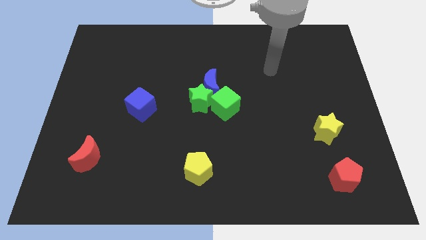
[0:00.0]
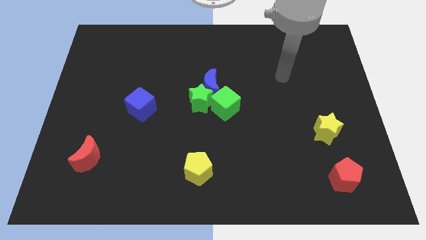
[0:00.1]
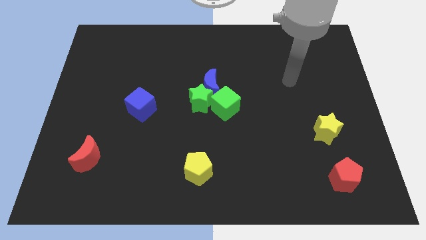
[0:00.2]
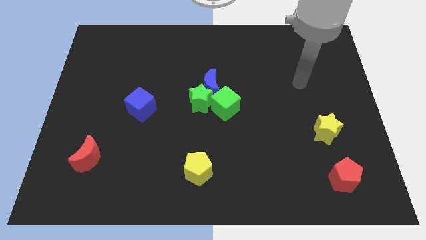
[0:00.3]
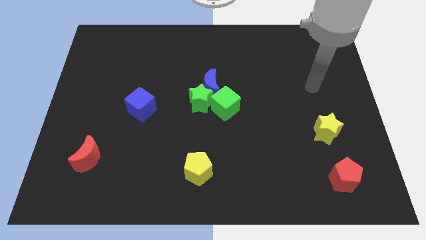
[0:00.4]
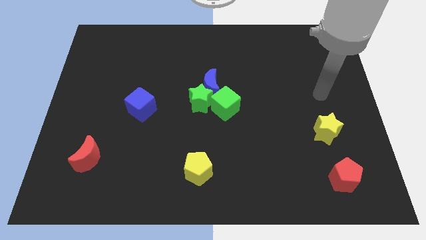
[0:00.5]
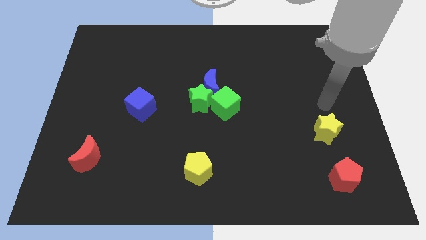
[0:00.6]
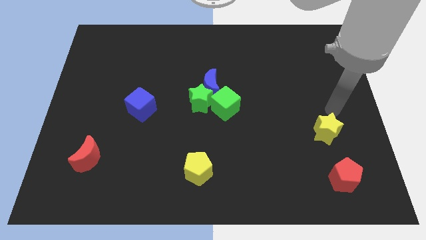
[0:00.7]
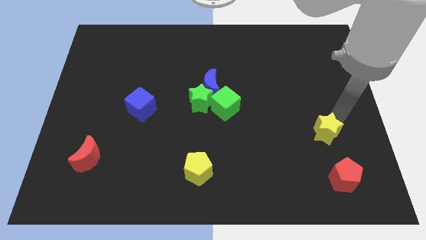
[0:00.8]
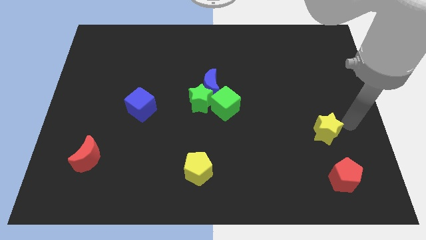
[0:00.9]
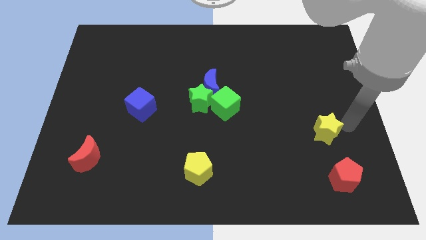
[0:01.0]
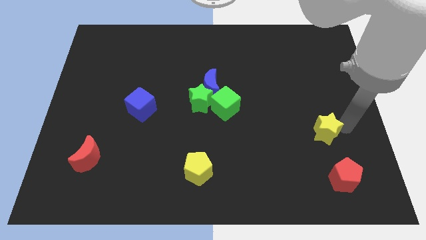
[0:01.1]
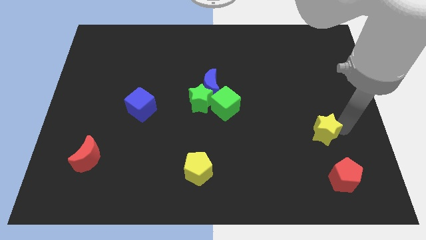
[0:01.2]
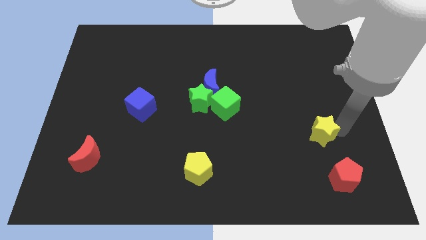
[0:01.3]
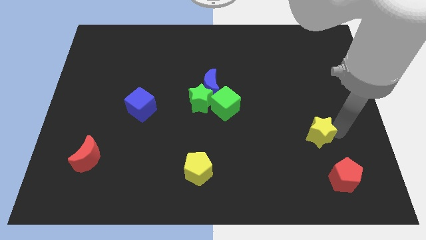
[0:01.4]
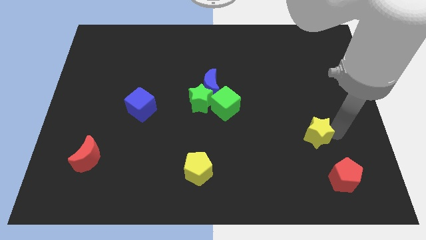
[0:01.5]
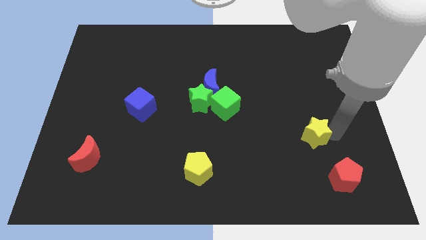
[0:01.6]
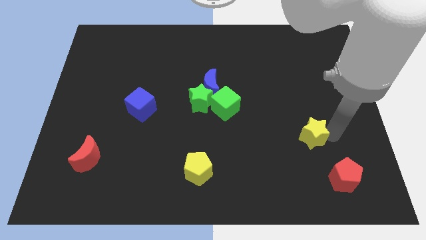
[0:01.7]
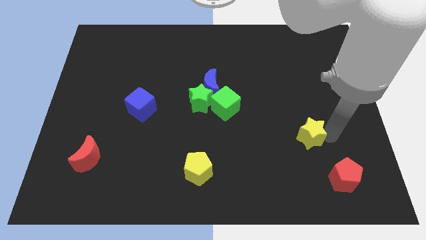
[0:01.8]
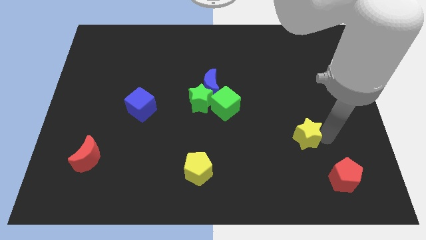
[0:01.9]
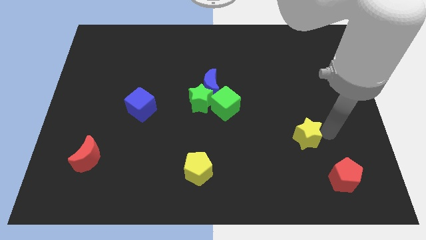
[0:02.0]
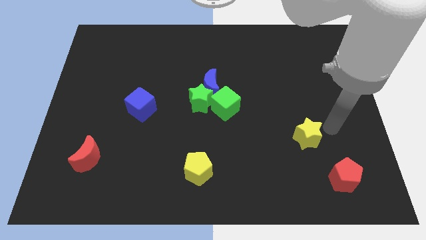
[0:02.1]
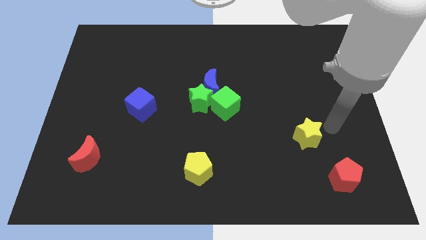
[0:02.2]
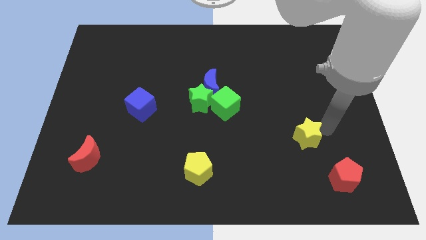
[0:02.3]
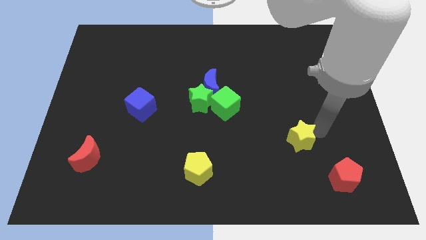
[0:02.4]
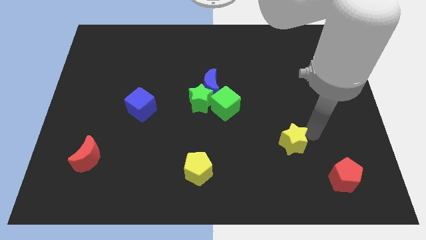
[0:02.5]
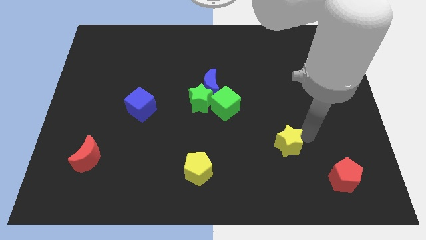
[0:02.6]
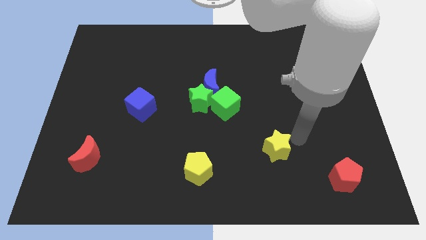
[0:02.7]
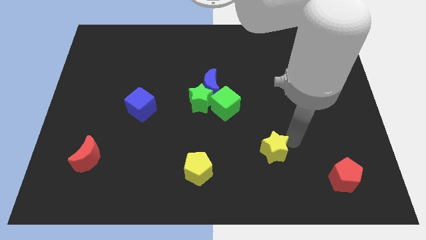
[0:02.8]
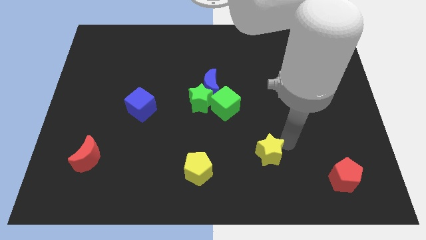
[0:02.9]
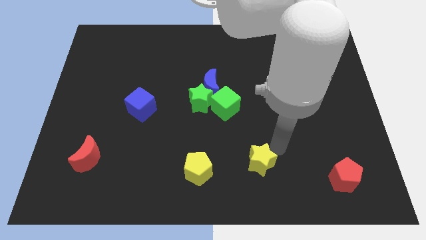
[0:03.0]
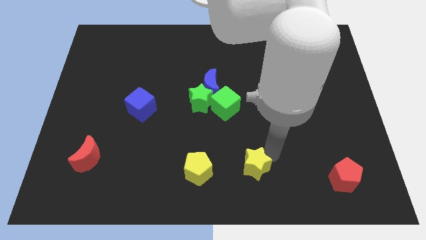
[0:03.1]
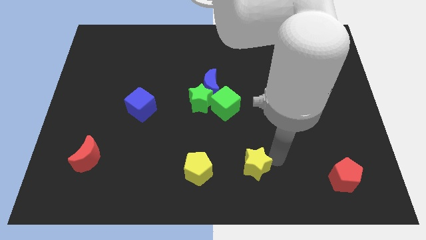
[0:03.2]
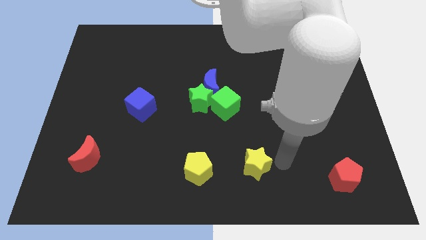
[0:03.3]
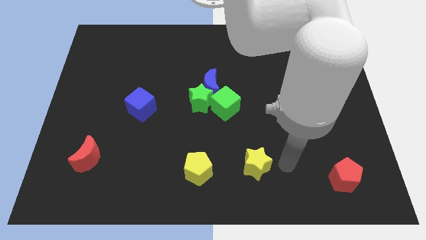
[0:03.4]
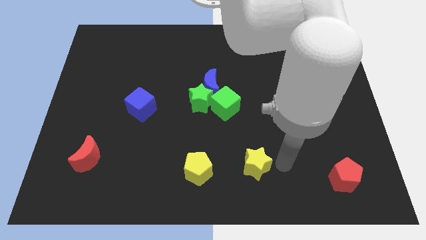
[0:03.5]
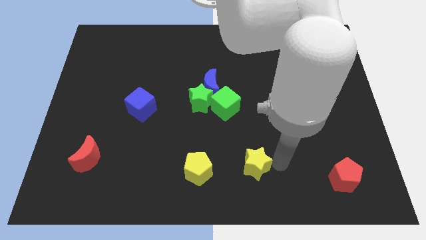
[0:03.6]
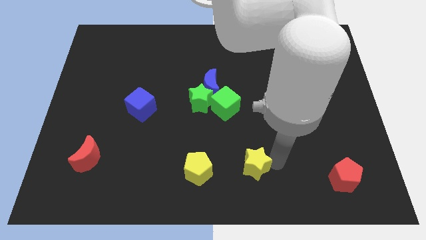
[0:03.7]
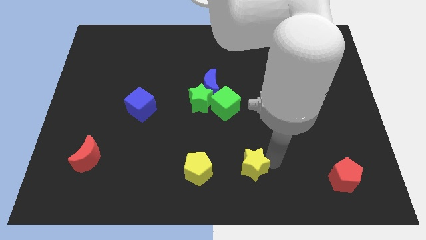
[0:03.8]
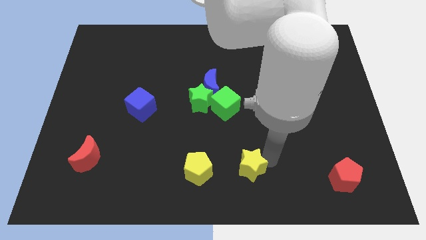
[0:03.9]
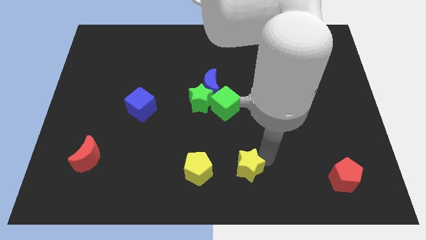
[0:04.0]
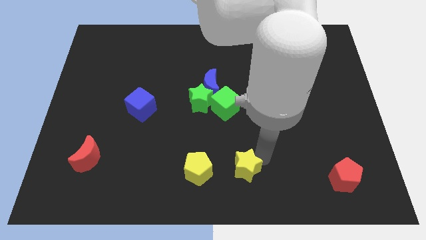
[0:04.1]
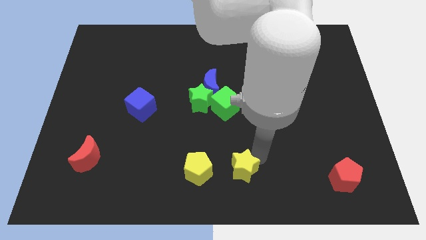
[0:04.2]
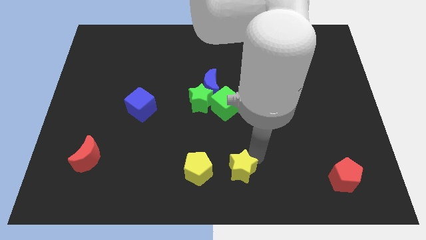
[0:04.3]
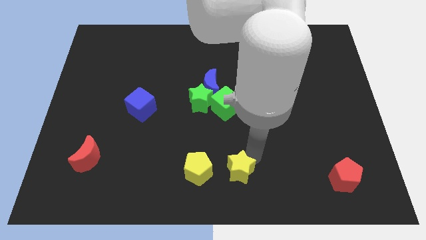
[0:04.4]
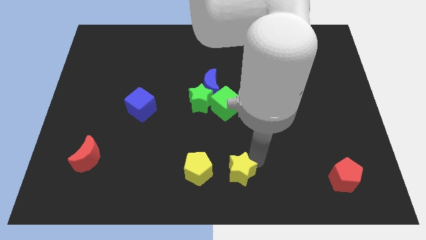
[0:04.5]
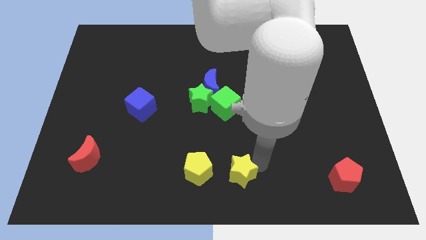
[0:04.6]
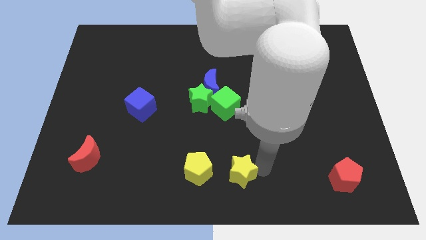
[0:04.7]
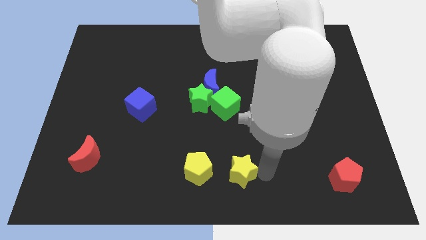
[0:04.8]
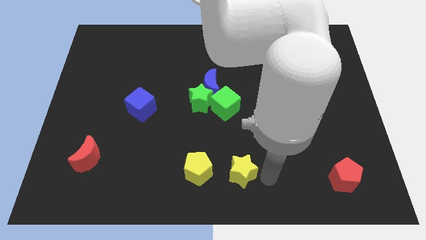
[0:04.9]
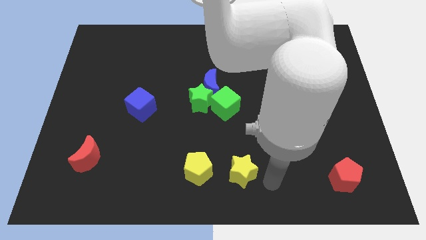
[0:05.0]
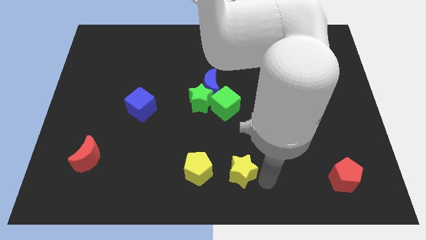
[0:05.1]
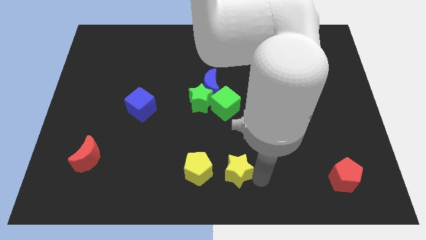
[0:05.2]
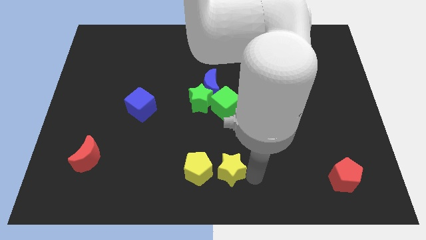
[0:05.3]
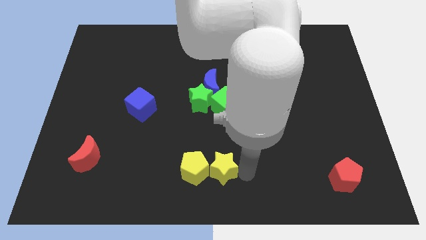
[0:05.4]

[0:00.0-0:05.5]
push the yellow star close to the yellow pentagon

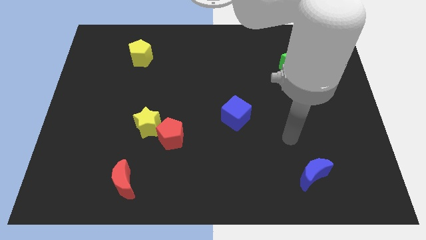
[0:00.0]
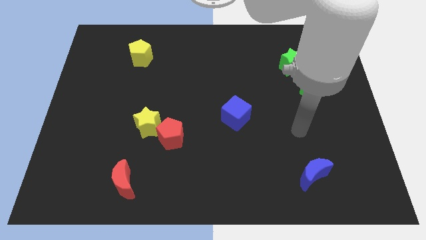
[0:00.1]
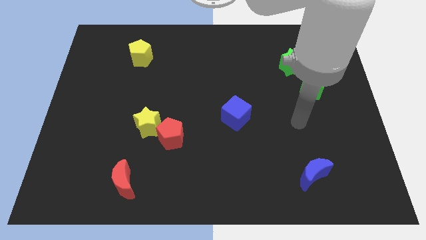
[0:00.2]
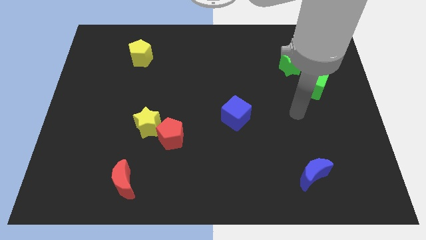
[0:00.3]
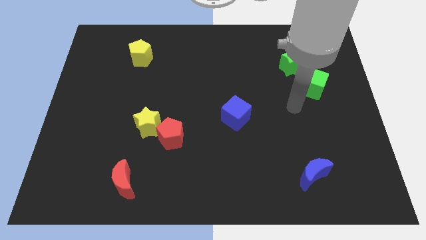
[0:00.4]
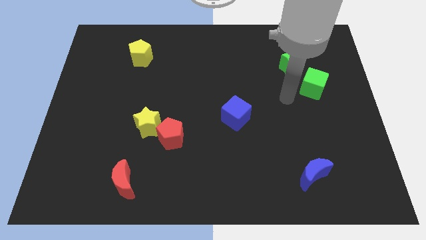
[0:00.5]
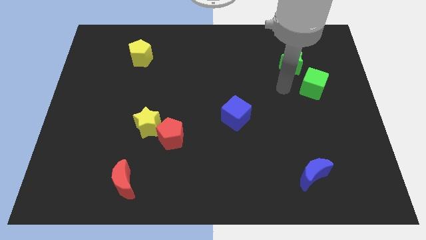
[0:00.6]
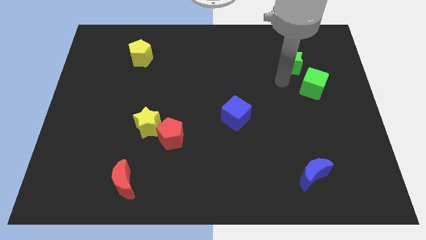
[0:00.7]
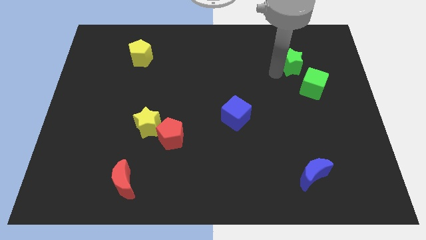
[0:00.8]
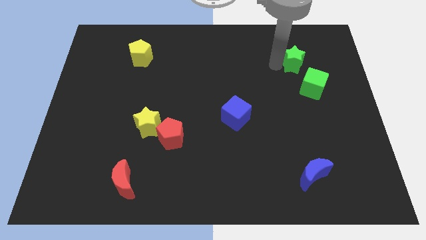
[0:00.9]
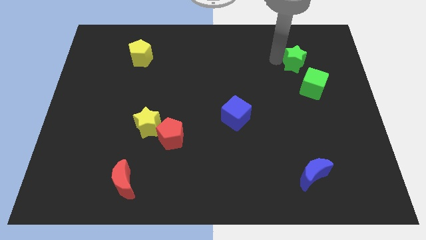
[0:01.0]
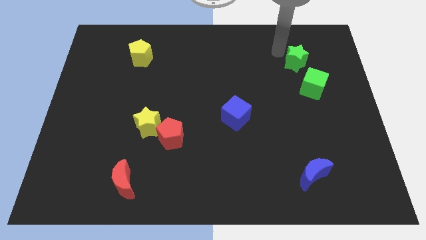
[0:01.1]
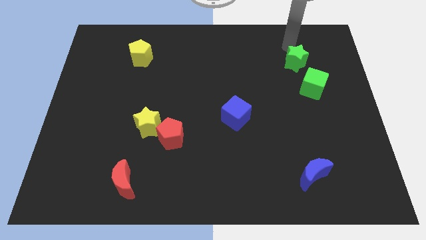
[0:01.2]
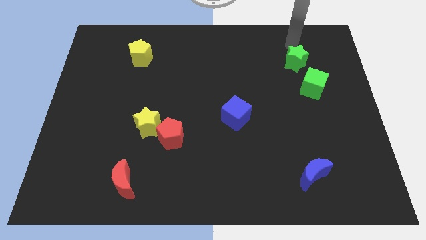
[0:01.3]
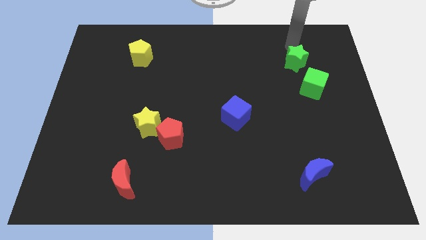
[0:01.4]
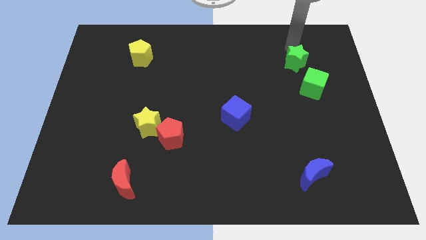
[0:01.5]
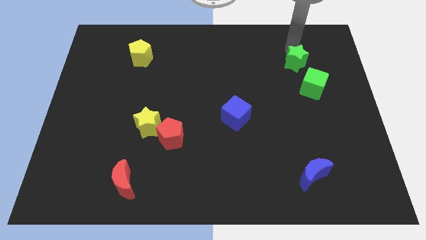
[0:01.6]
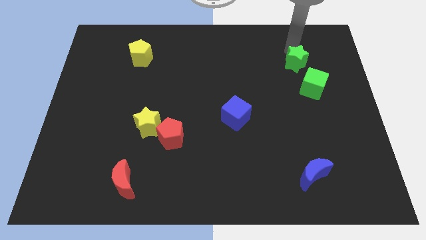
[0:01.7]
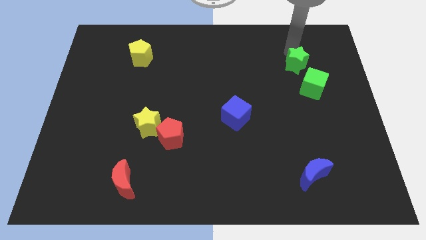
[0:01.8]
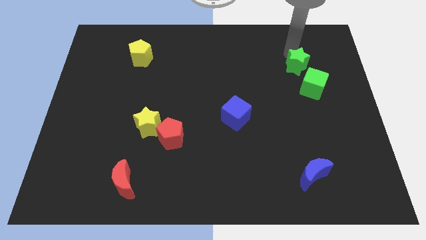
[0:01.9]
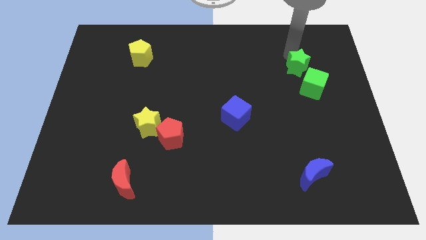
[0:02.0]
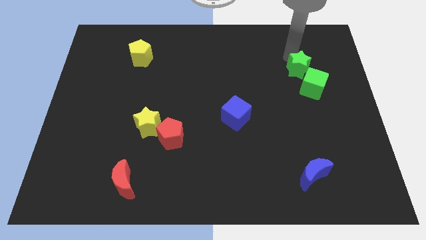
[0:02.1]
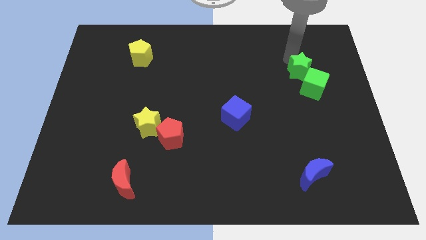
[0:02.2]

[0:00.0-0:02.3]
put the green star next to the green cube
